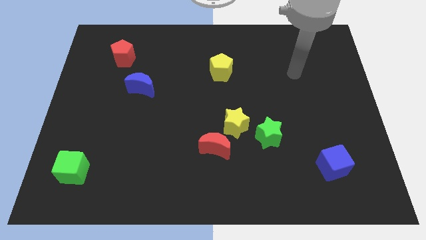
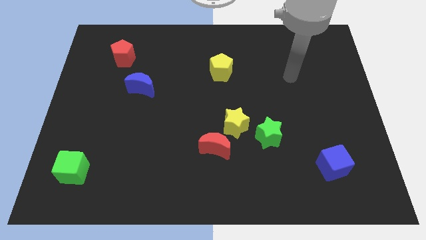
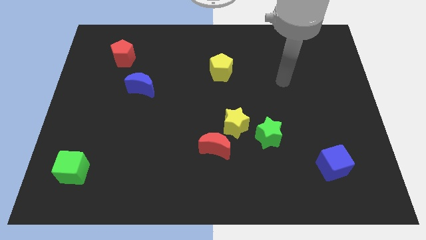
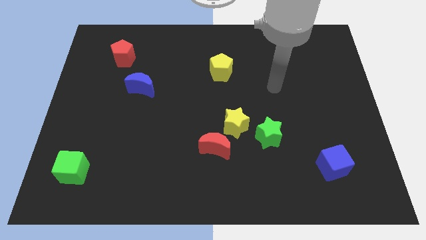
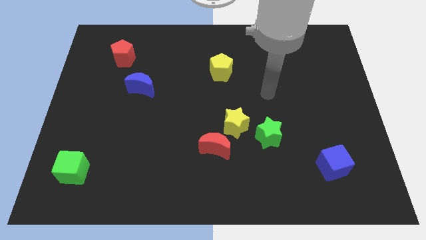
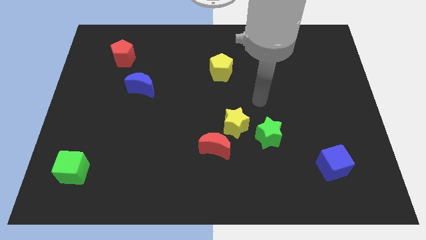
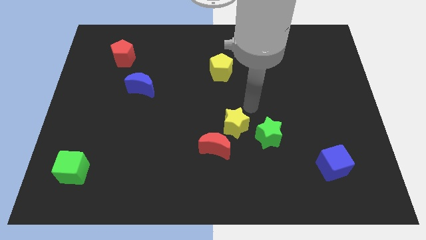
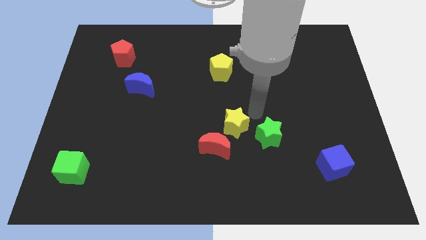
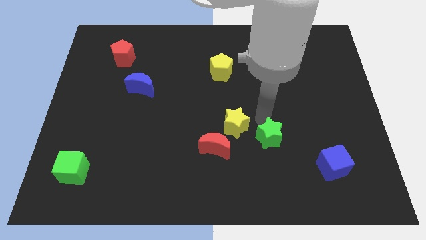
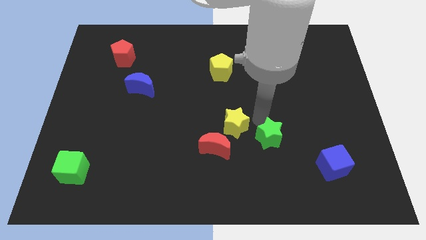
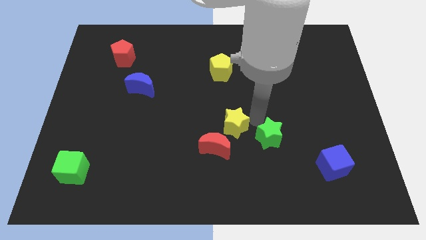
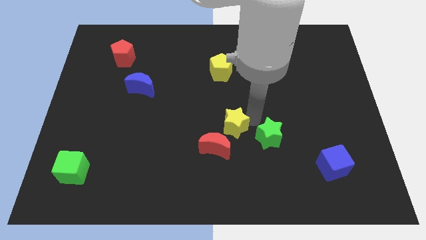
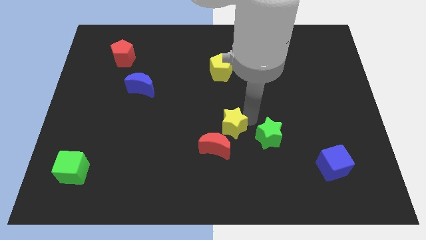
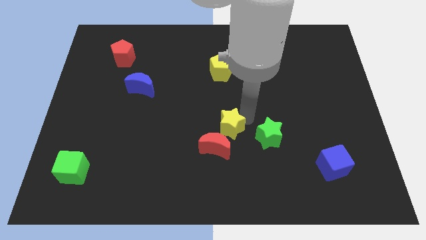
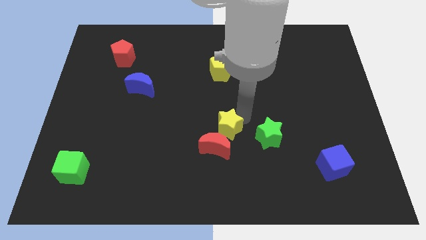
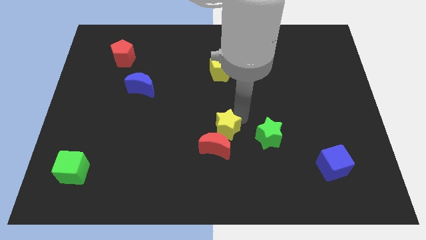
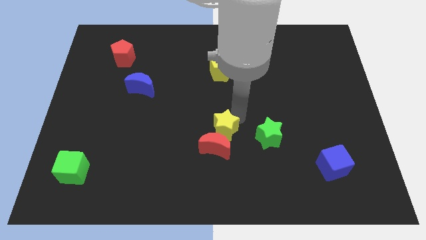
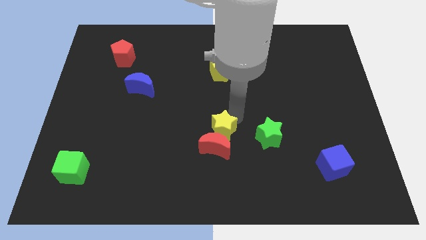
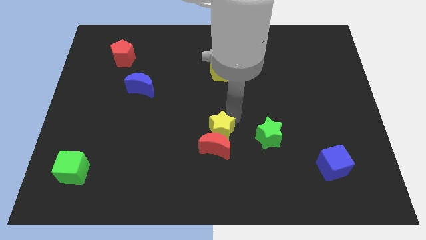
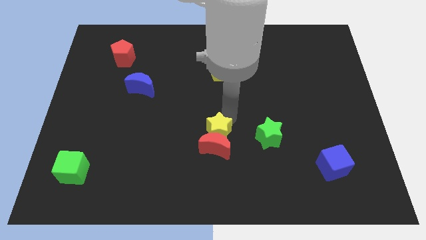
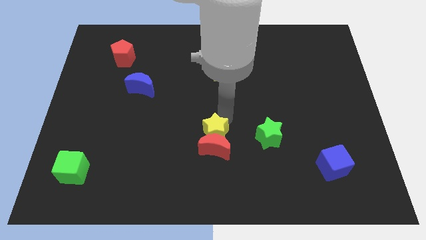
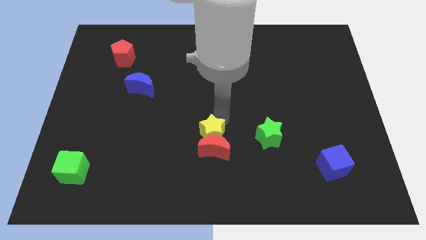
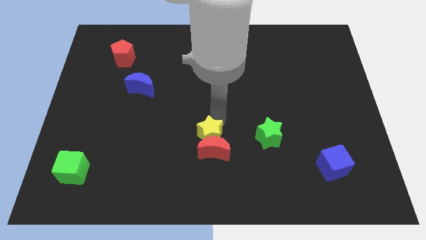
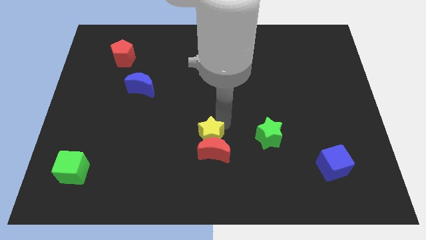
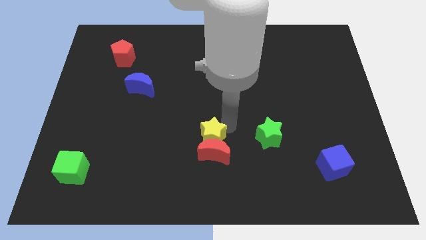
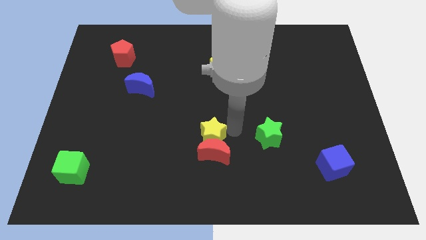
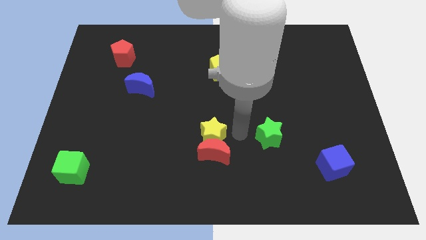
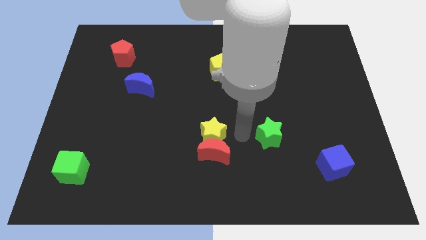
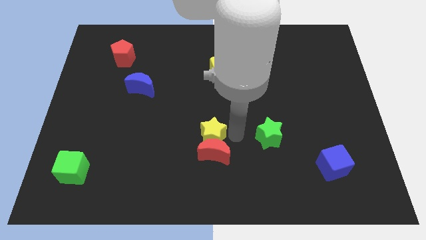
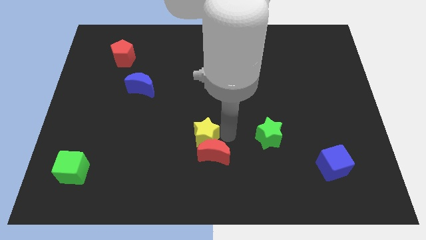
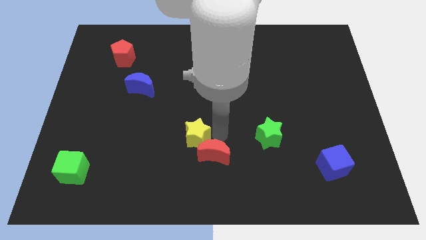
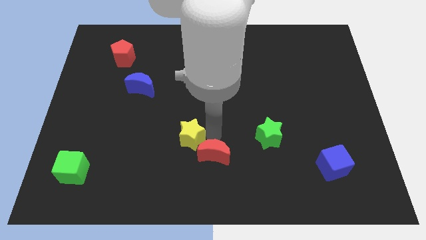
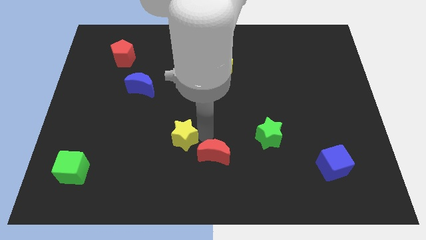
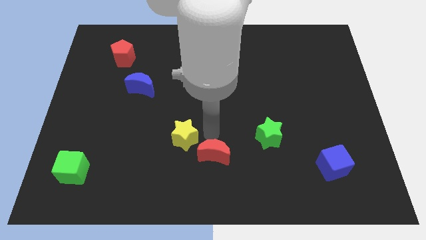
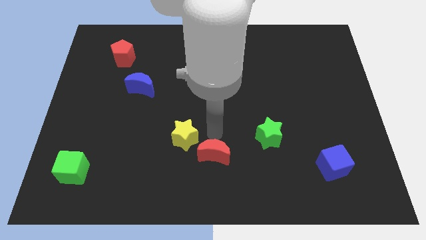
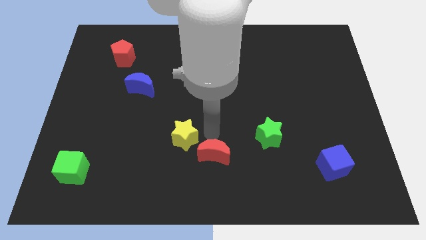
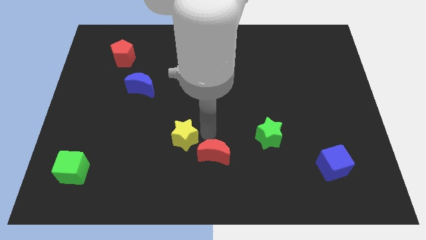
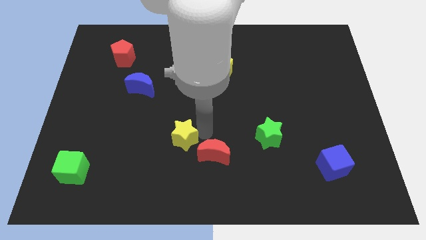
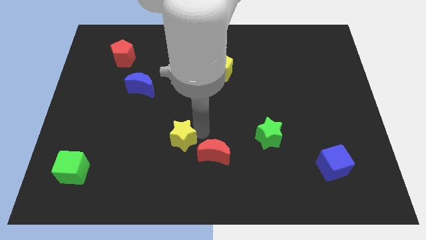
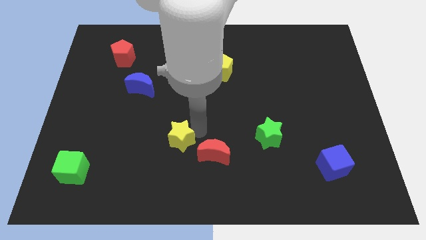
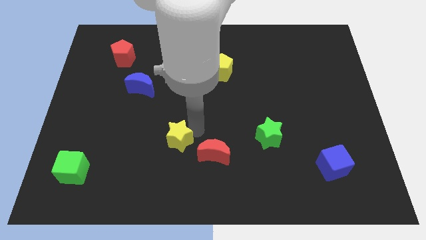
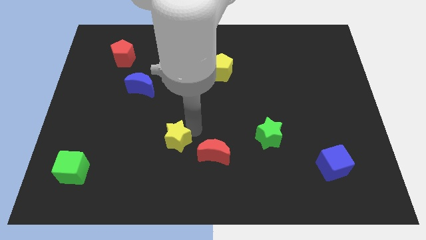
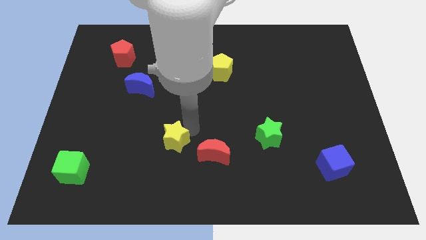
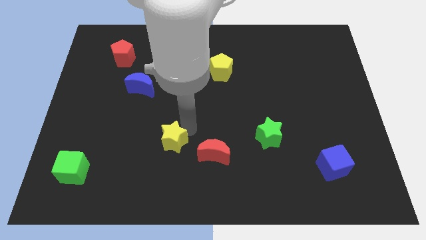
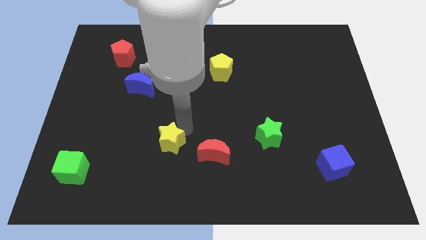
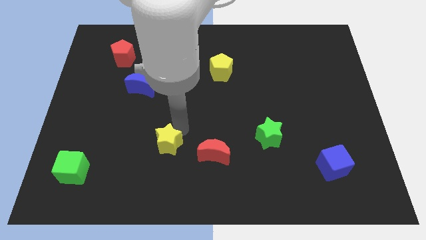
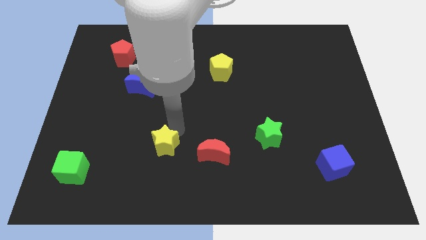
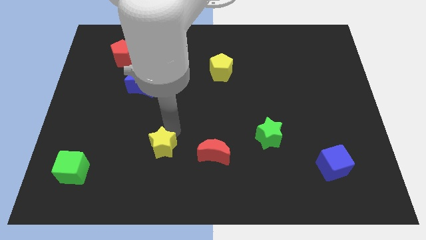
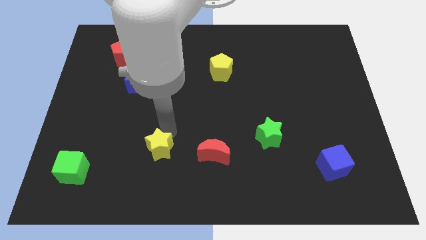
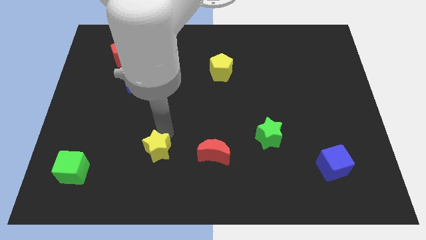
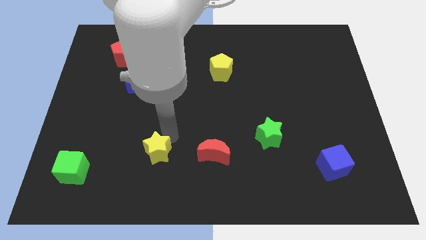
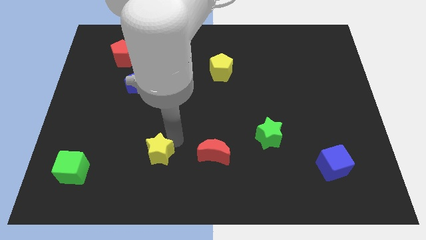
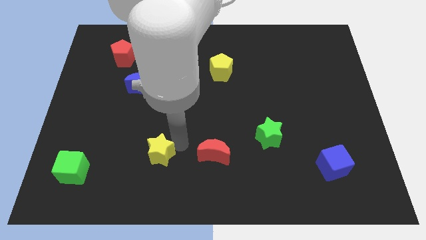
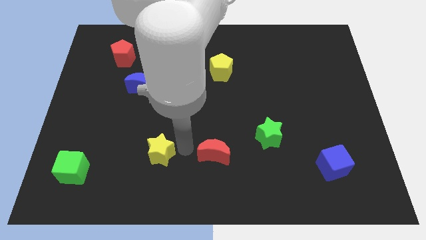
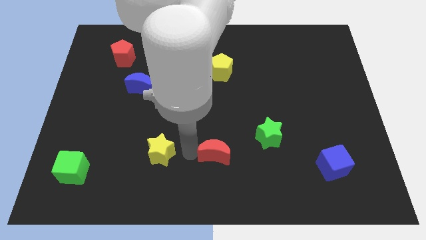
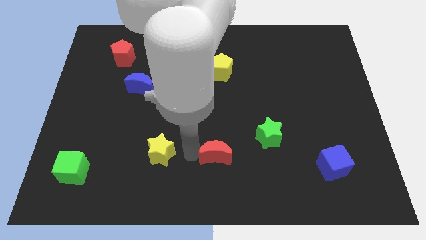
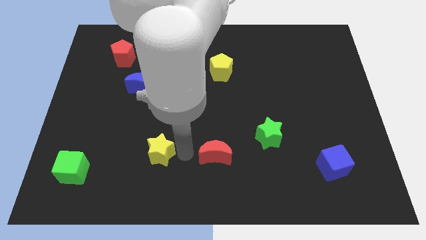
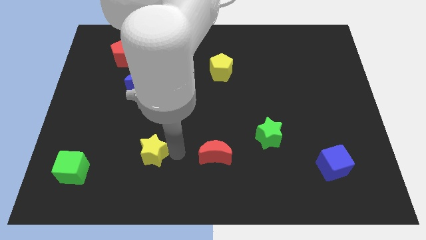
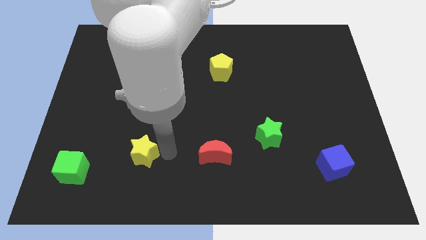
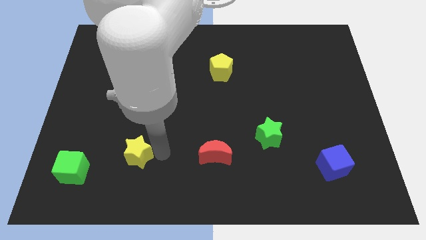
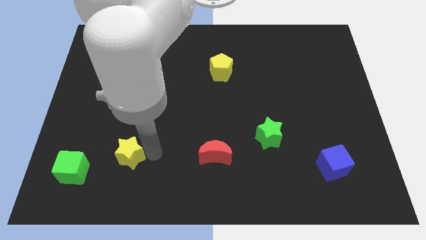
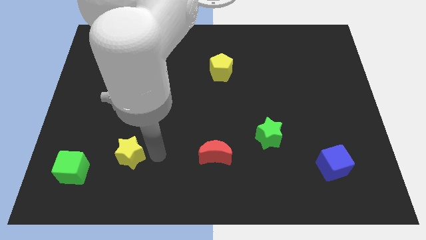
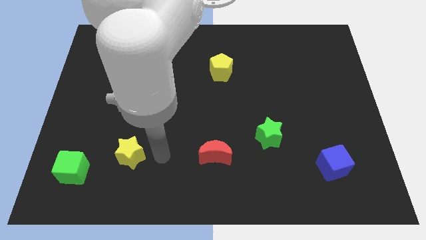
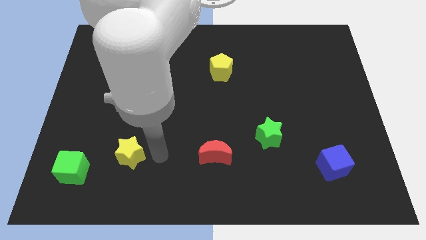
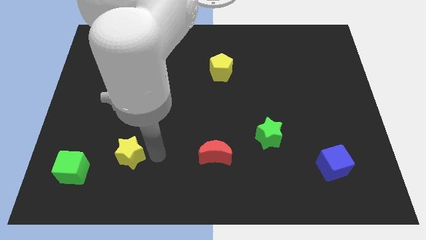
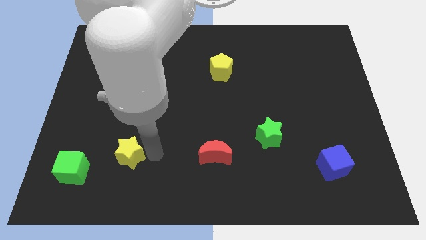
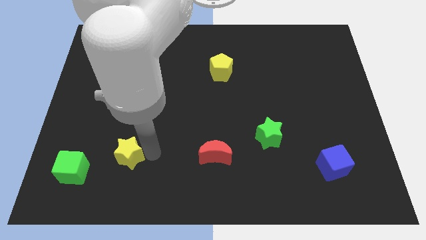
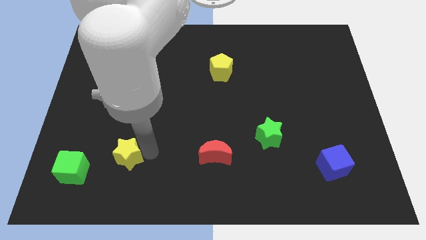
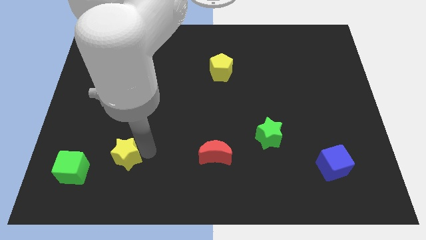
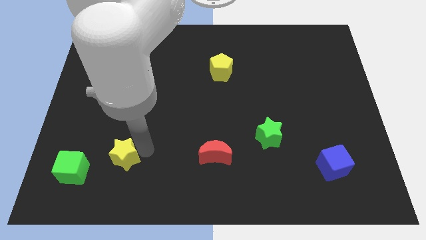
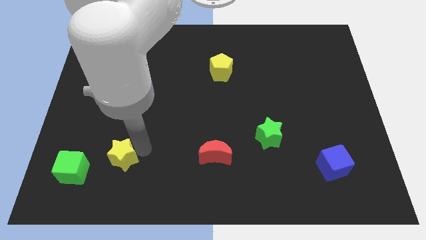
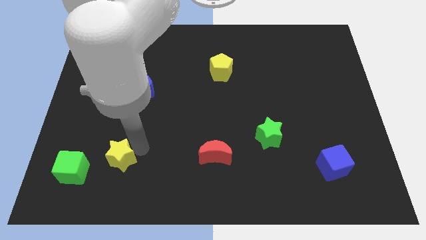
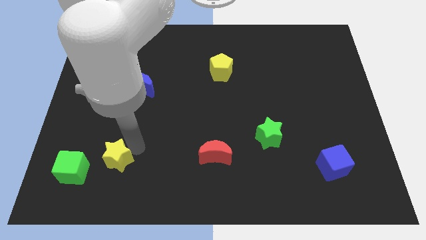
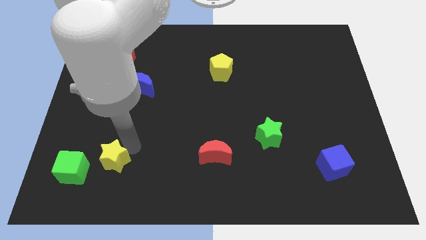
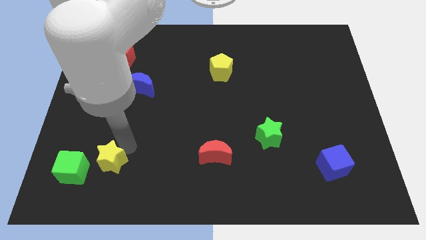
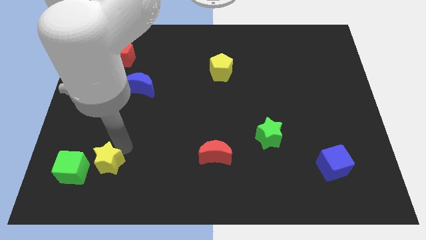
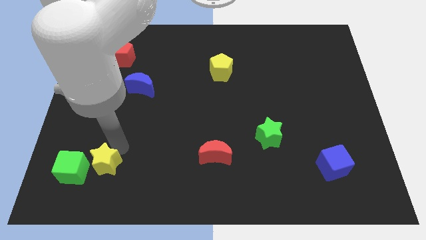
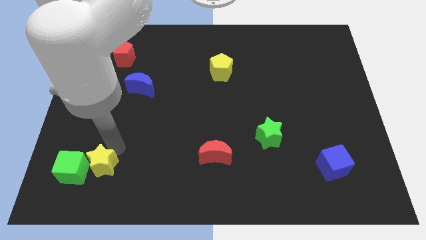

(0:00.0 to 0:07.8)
put the yellow star to the green cube
